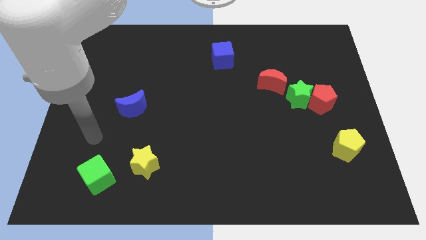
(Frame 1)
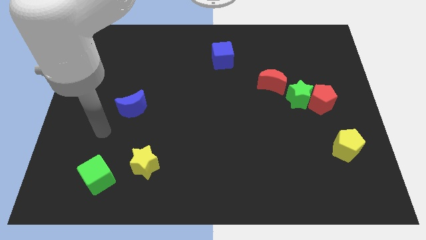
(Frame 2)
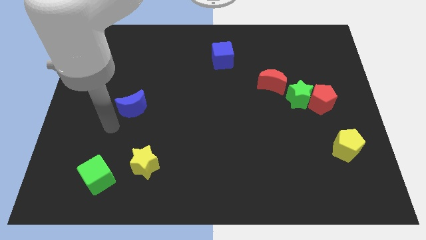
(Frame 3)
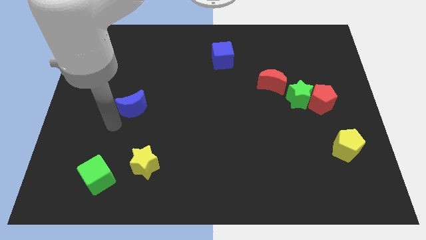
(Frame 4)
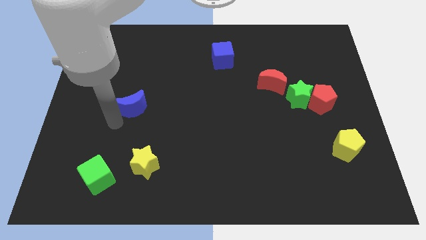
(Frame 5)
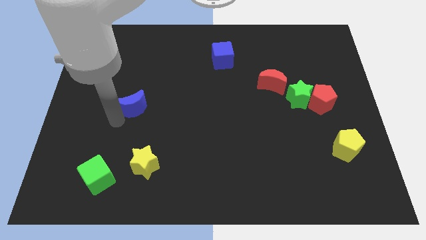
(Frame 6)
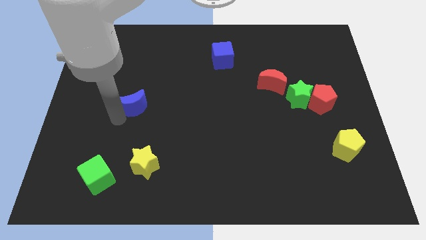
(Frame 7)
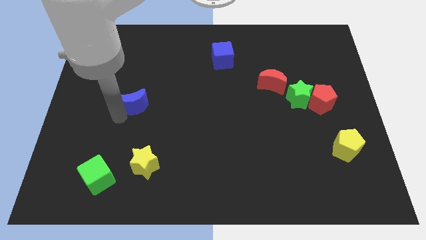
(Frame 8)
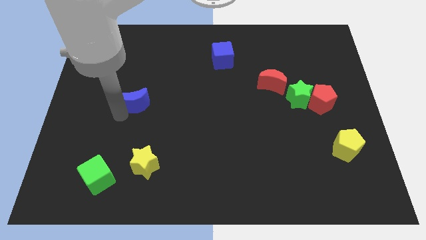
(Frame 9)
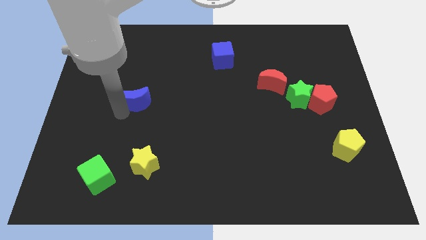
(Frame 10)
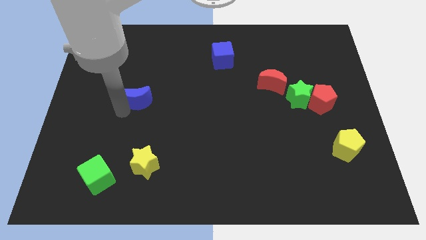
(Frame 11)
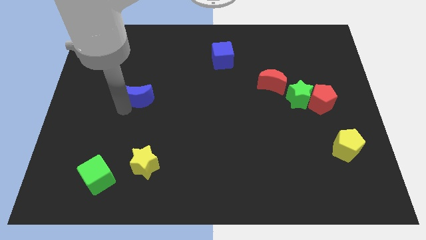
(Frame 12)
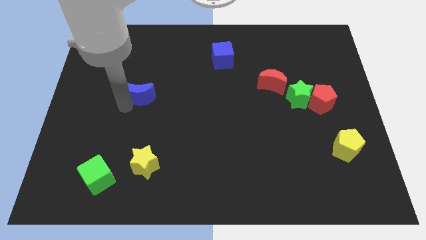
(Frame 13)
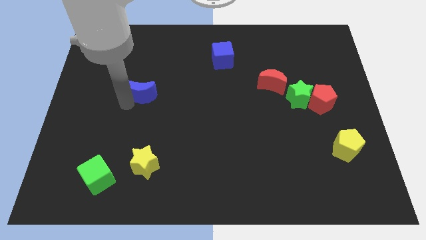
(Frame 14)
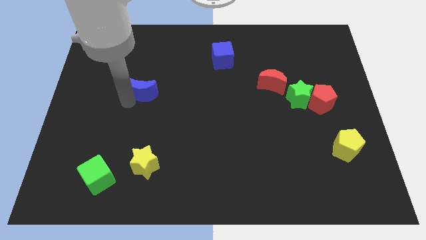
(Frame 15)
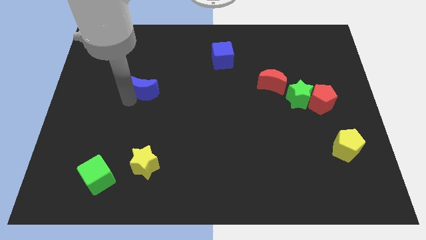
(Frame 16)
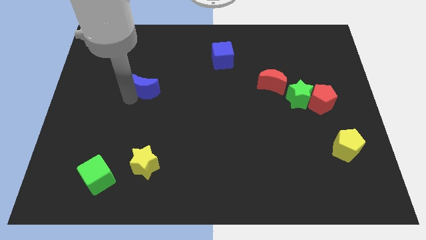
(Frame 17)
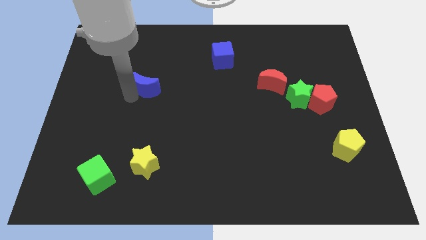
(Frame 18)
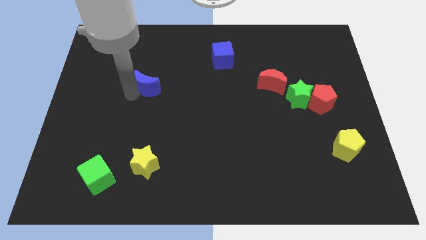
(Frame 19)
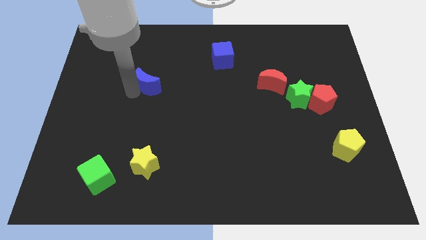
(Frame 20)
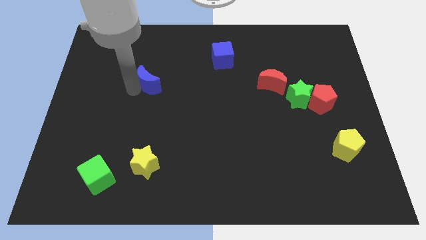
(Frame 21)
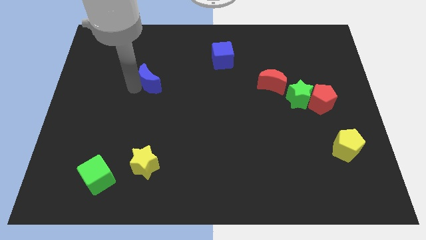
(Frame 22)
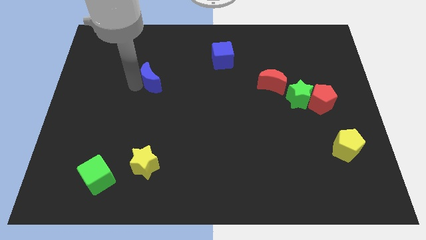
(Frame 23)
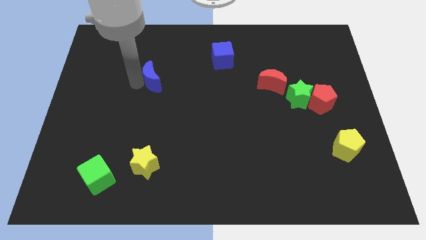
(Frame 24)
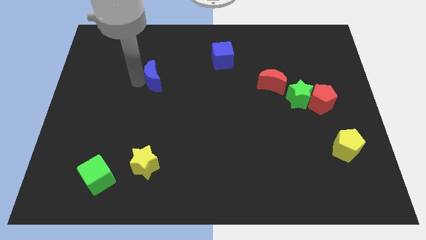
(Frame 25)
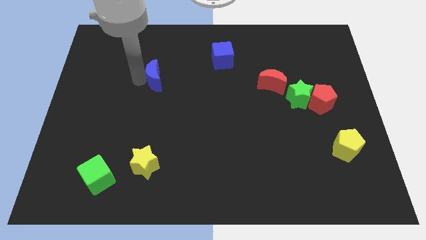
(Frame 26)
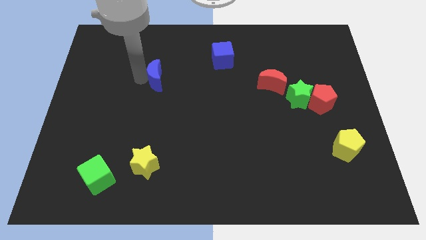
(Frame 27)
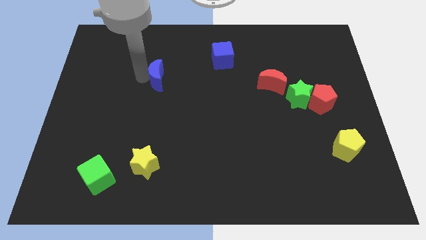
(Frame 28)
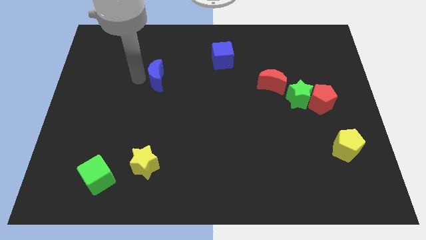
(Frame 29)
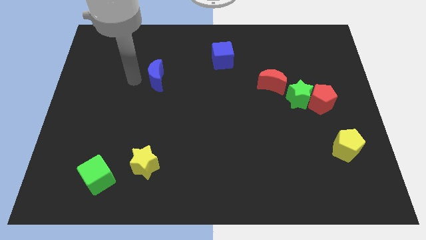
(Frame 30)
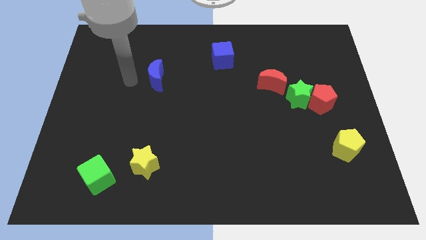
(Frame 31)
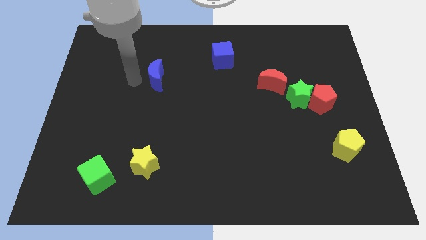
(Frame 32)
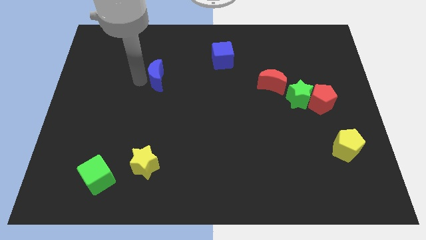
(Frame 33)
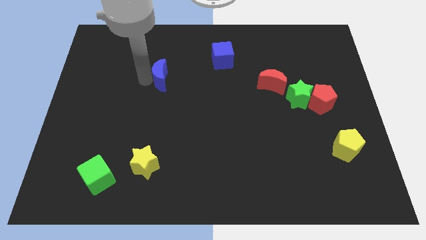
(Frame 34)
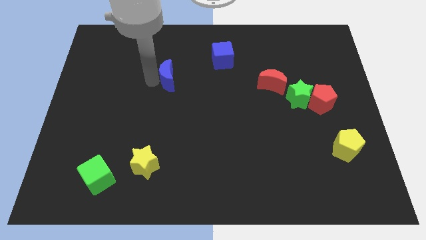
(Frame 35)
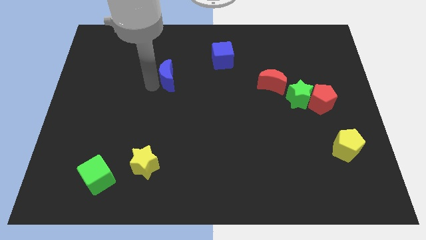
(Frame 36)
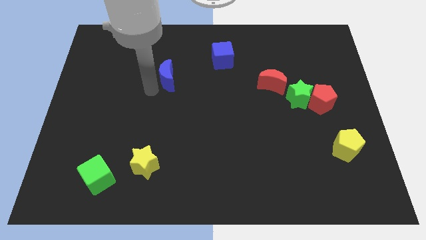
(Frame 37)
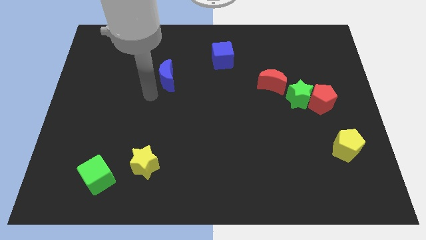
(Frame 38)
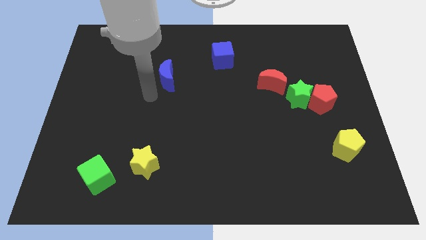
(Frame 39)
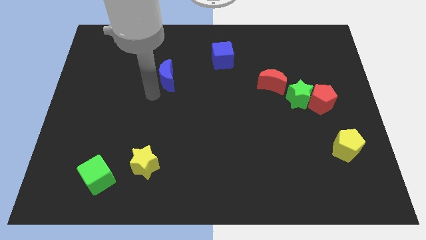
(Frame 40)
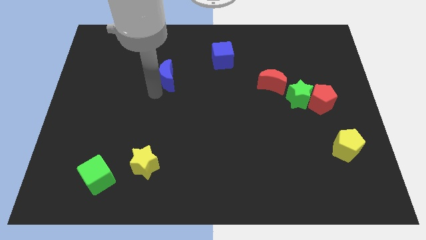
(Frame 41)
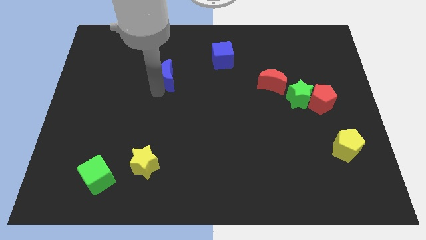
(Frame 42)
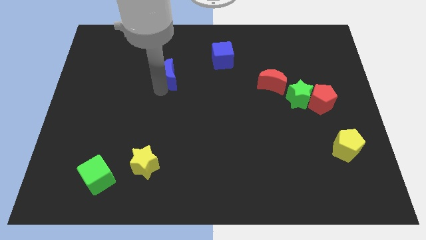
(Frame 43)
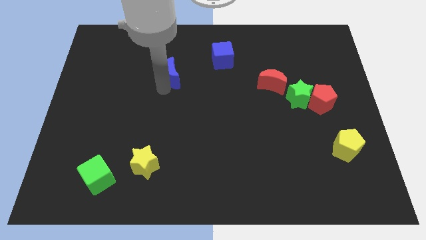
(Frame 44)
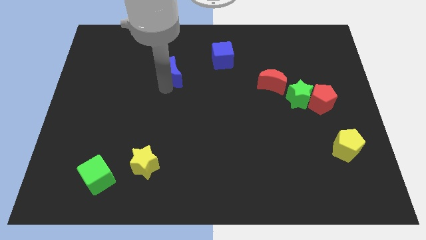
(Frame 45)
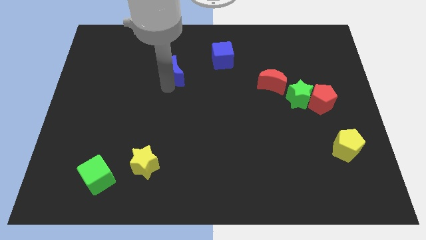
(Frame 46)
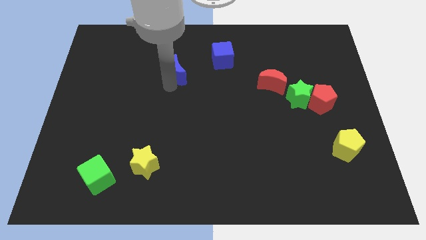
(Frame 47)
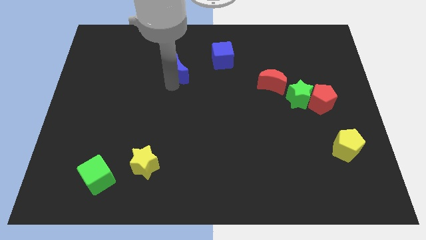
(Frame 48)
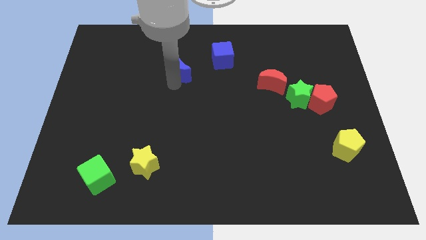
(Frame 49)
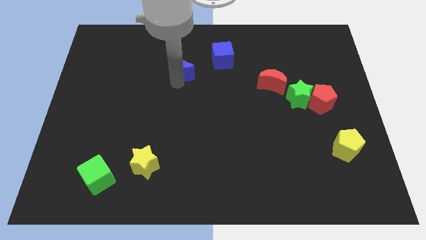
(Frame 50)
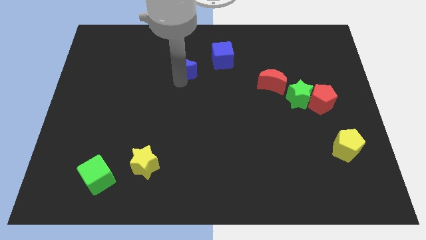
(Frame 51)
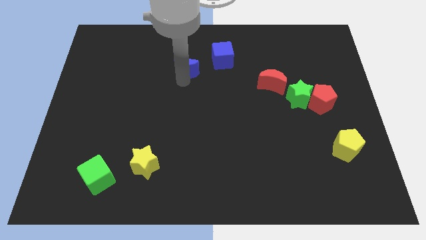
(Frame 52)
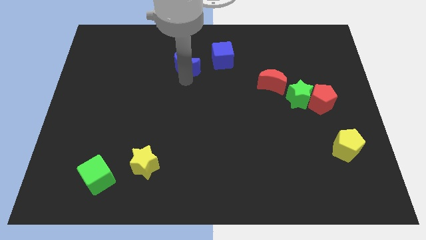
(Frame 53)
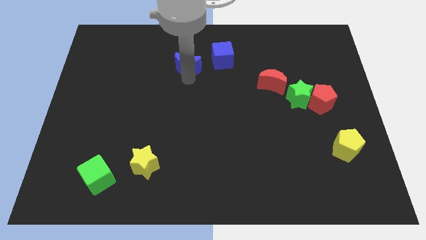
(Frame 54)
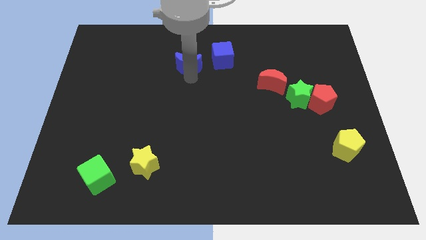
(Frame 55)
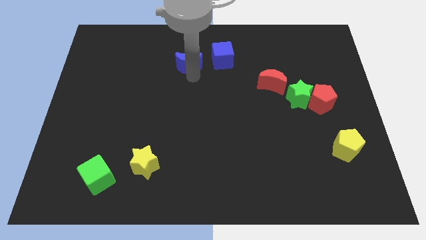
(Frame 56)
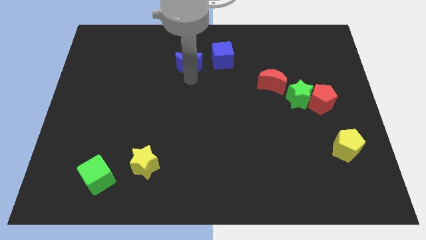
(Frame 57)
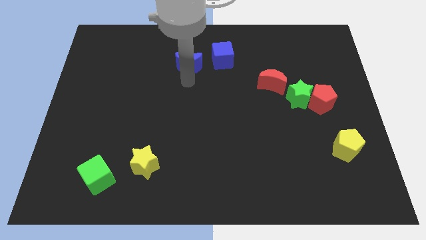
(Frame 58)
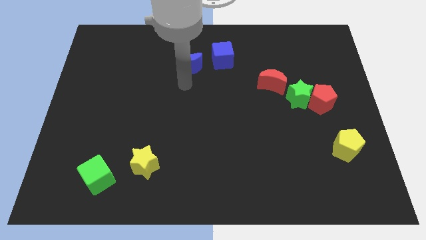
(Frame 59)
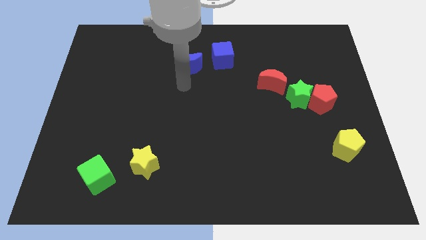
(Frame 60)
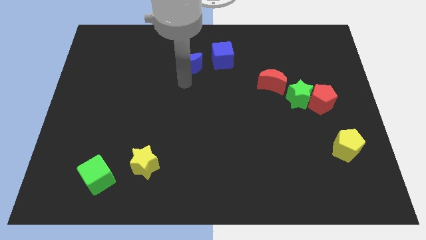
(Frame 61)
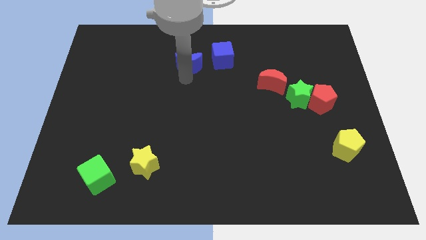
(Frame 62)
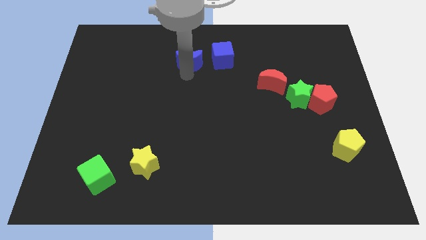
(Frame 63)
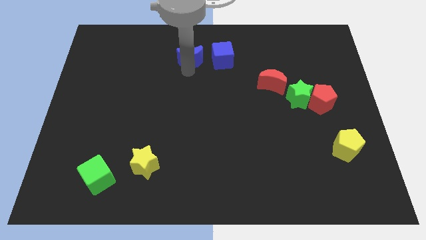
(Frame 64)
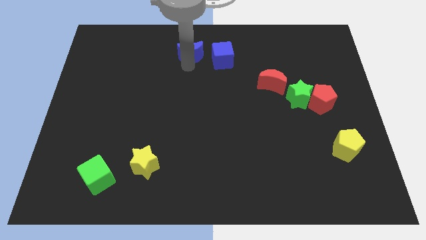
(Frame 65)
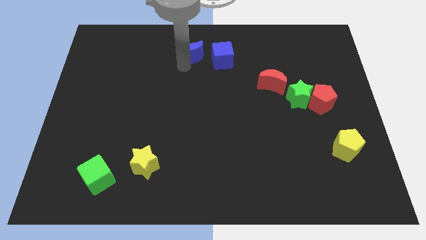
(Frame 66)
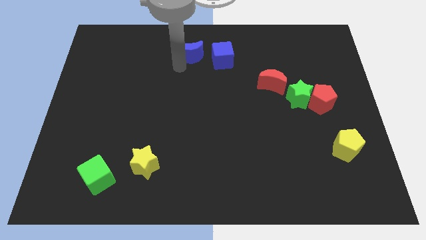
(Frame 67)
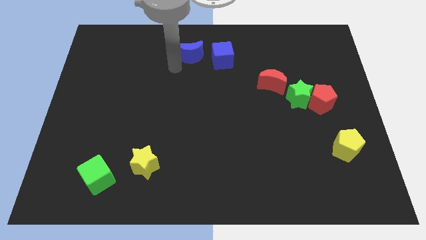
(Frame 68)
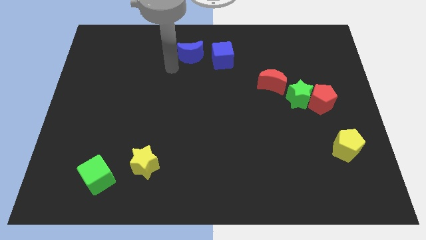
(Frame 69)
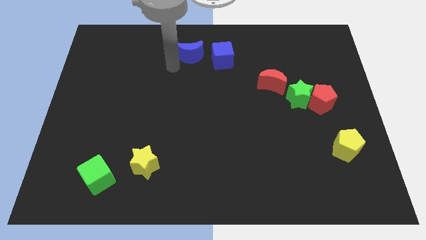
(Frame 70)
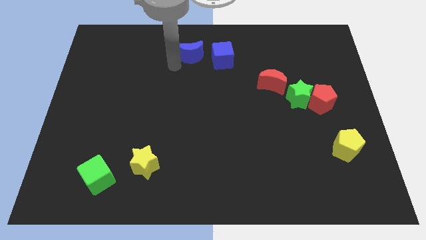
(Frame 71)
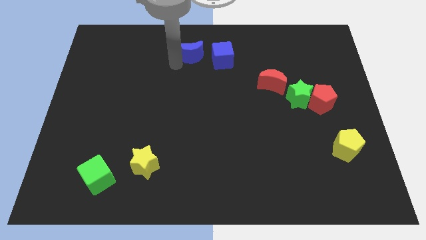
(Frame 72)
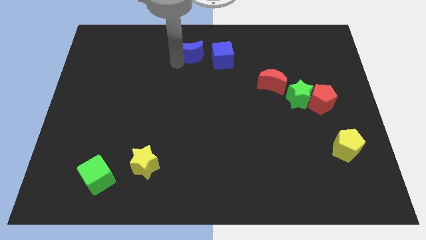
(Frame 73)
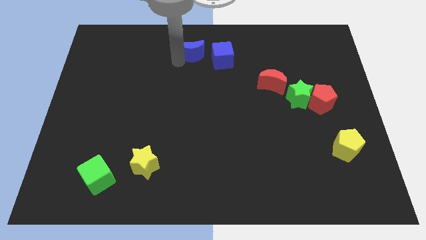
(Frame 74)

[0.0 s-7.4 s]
push the blue moon to the top side
